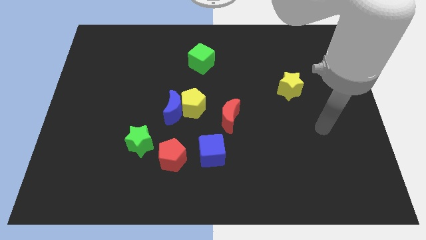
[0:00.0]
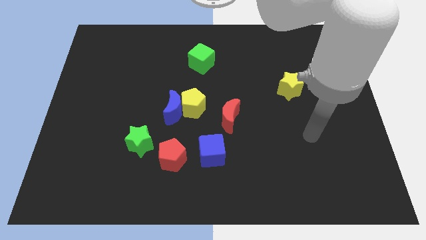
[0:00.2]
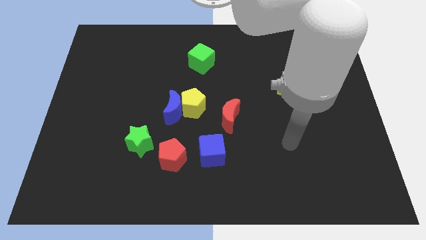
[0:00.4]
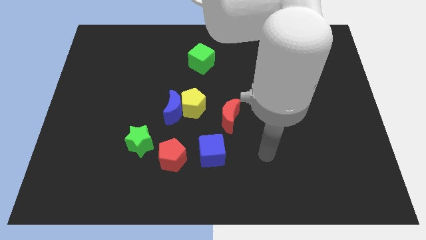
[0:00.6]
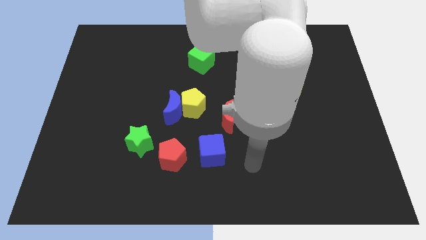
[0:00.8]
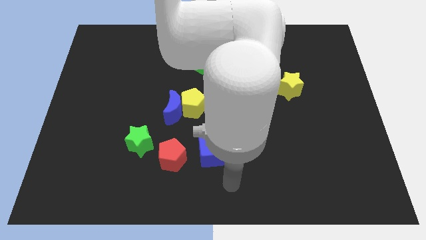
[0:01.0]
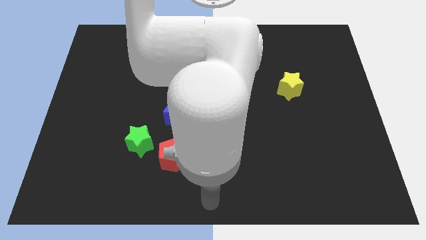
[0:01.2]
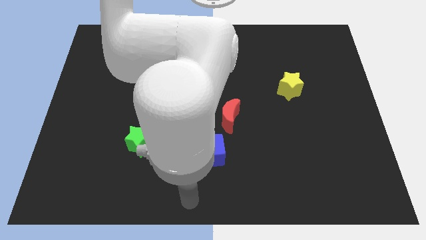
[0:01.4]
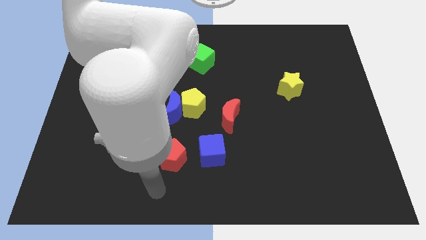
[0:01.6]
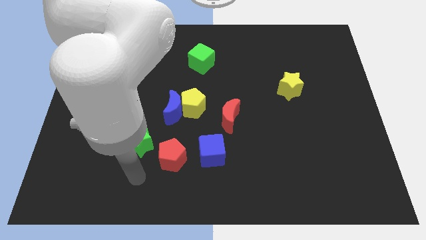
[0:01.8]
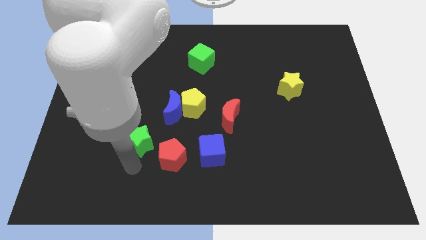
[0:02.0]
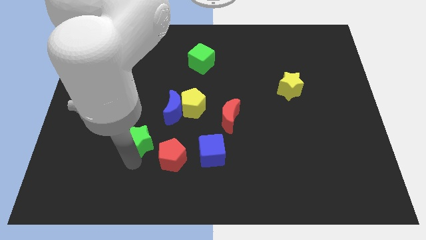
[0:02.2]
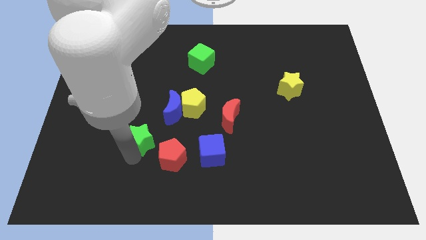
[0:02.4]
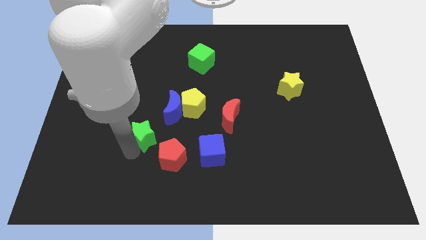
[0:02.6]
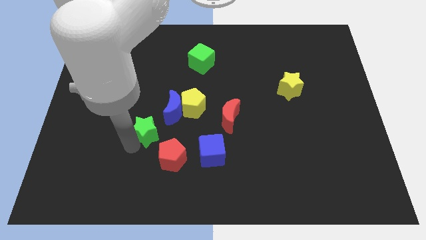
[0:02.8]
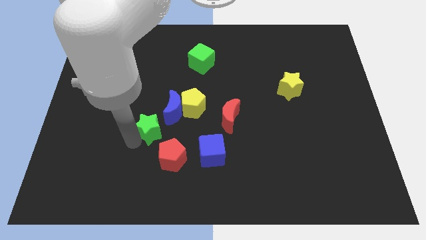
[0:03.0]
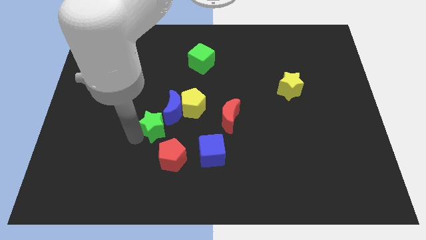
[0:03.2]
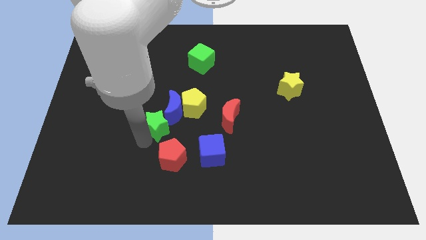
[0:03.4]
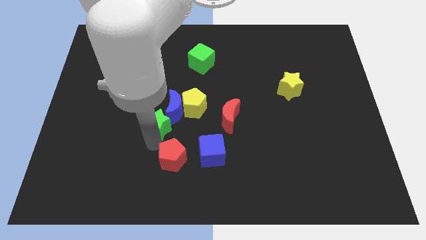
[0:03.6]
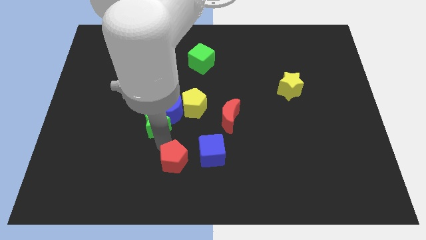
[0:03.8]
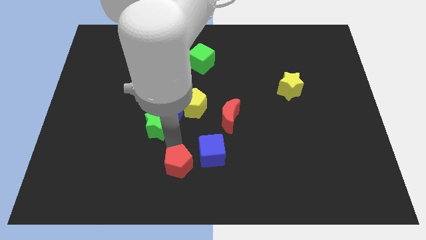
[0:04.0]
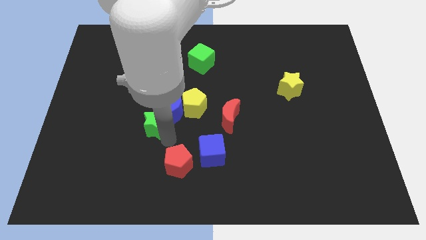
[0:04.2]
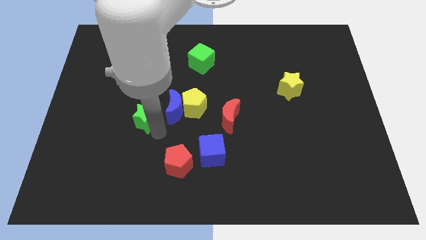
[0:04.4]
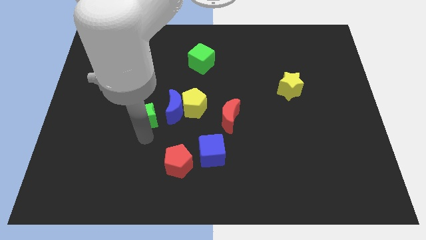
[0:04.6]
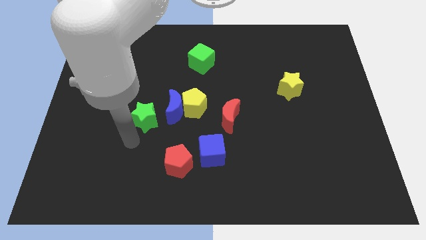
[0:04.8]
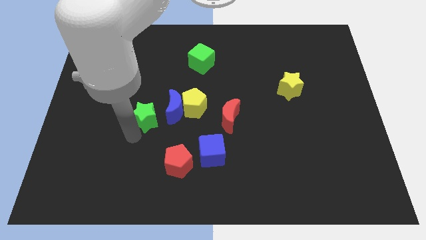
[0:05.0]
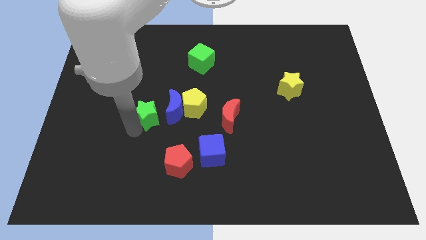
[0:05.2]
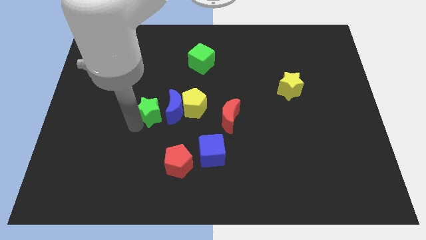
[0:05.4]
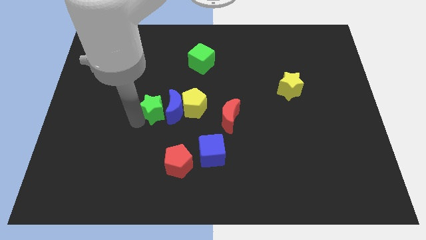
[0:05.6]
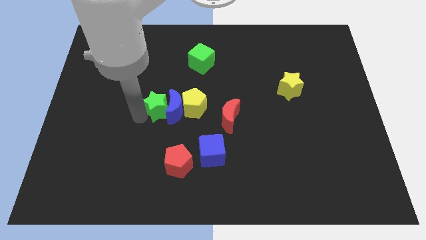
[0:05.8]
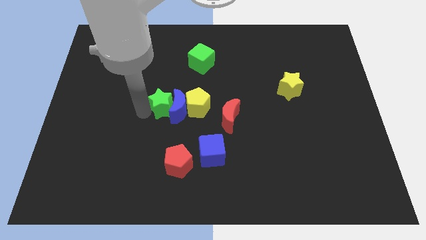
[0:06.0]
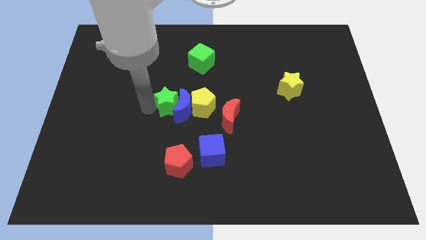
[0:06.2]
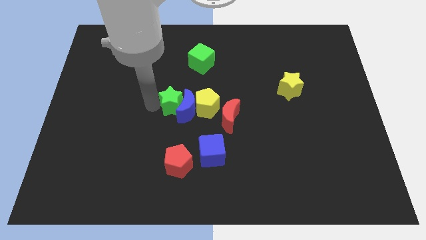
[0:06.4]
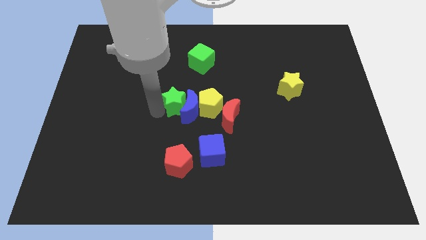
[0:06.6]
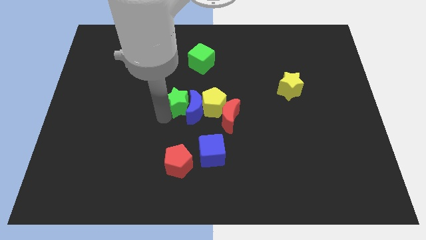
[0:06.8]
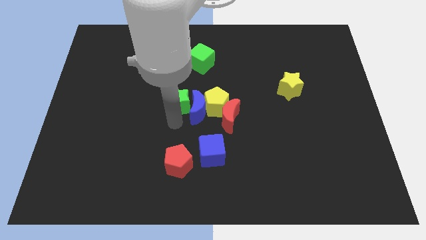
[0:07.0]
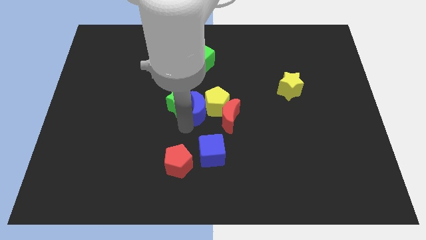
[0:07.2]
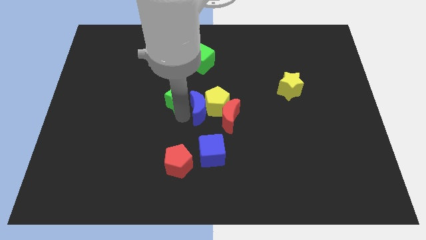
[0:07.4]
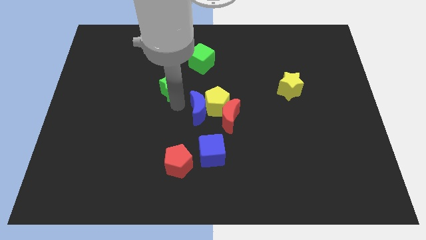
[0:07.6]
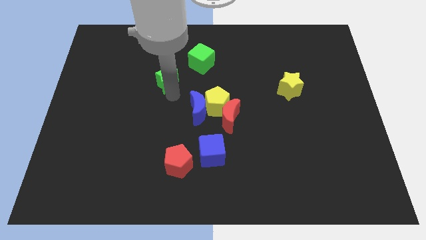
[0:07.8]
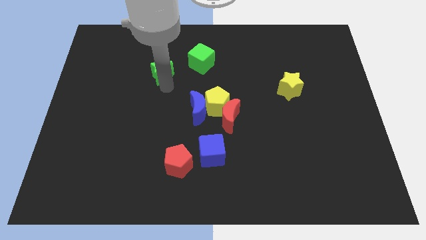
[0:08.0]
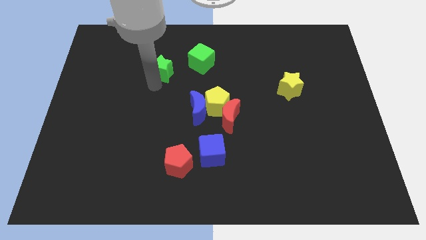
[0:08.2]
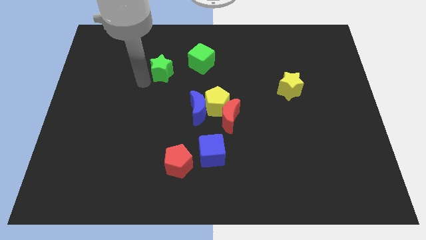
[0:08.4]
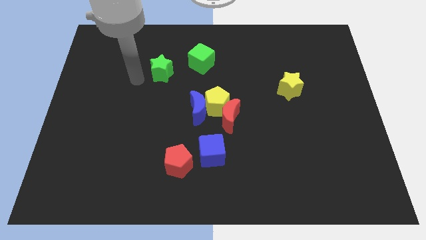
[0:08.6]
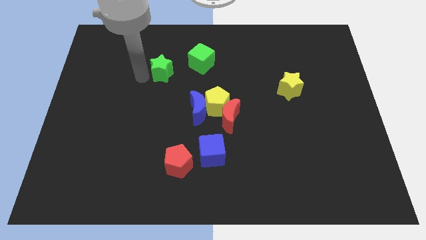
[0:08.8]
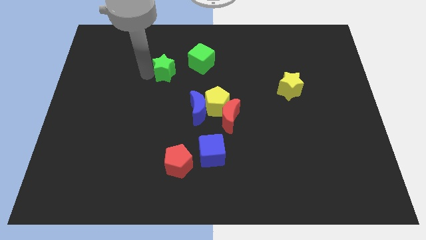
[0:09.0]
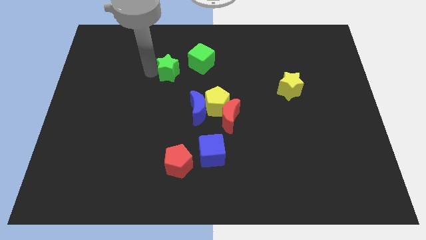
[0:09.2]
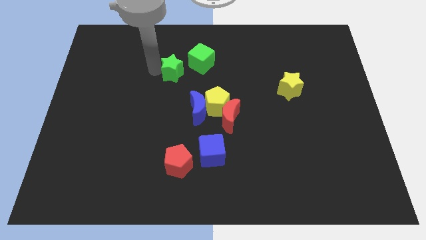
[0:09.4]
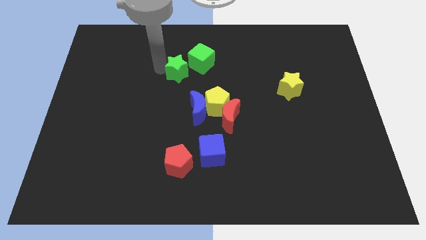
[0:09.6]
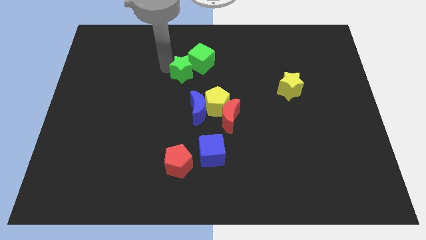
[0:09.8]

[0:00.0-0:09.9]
slide the green star towards the green cube

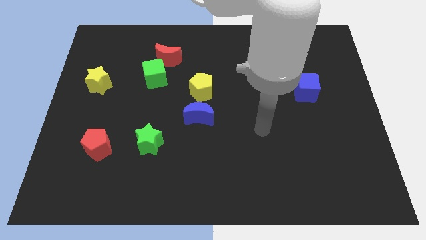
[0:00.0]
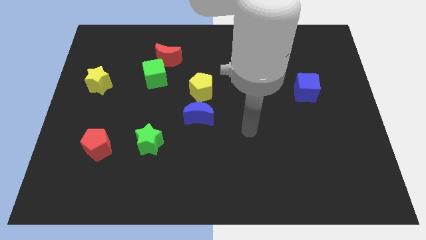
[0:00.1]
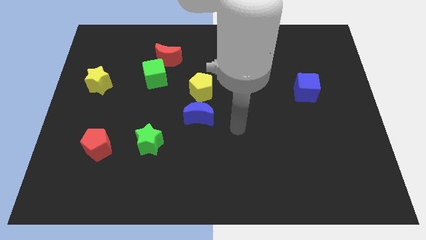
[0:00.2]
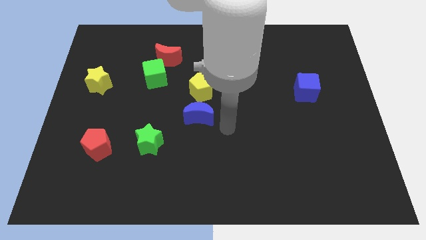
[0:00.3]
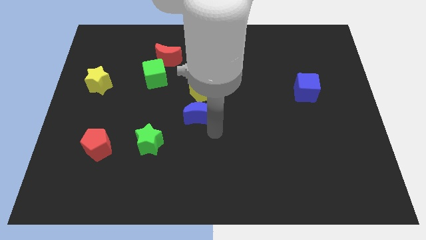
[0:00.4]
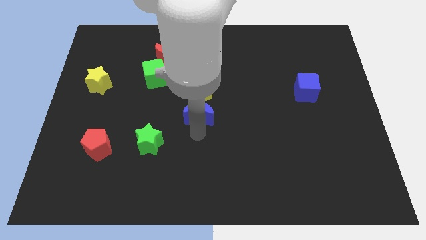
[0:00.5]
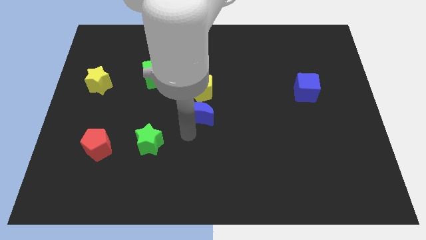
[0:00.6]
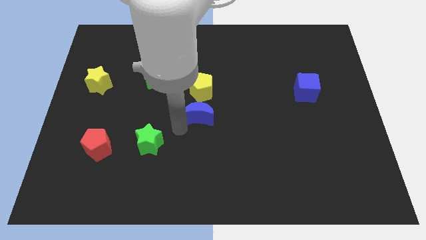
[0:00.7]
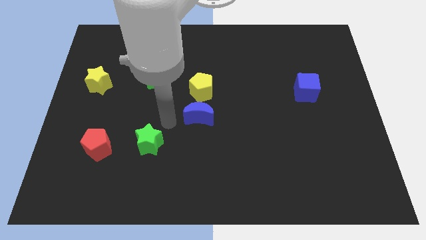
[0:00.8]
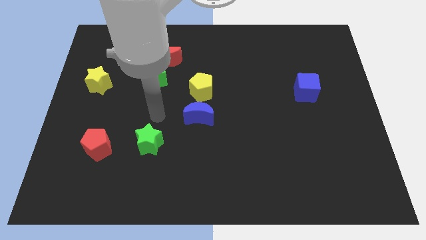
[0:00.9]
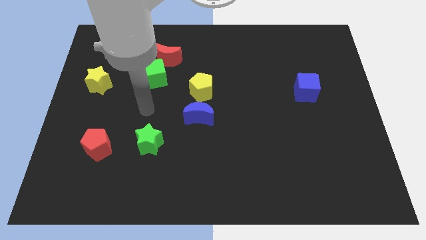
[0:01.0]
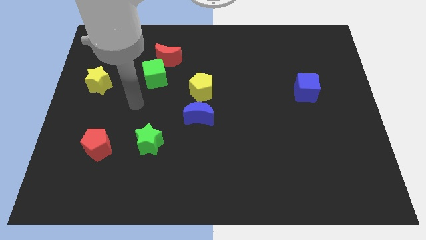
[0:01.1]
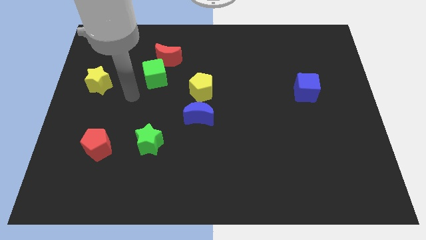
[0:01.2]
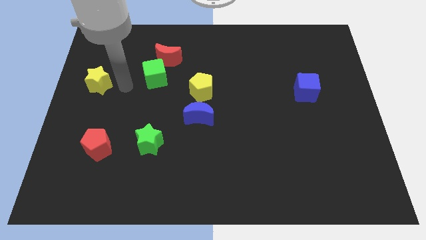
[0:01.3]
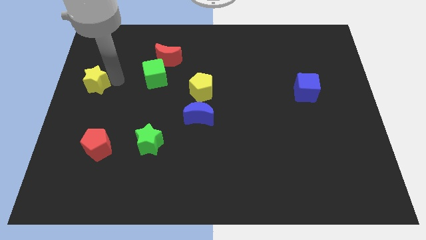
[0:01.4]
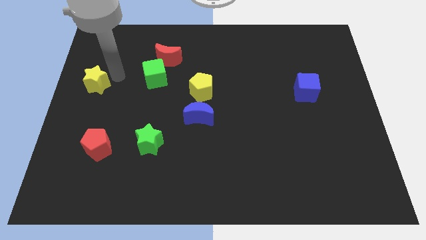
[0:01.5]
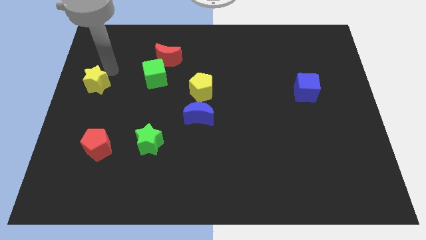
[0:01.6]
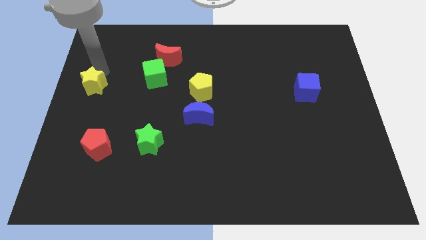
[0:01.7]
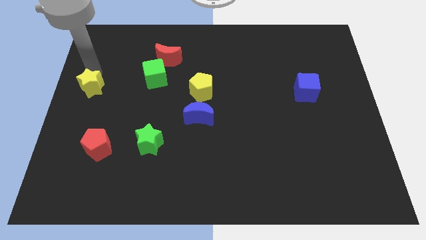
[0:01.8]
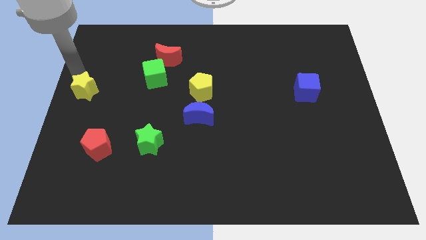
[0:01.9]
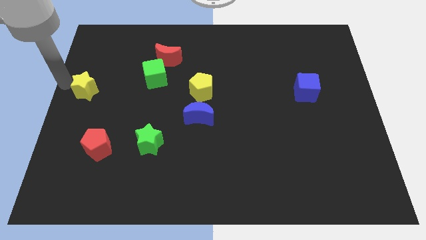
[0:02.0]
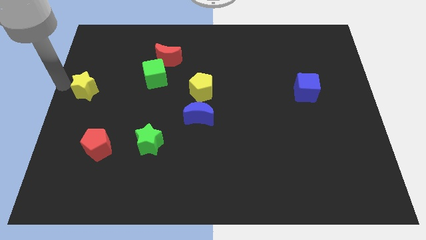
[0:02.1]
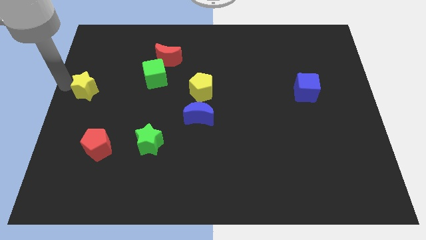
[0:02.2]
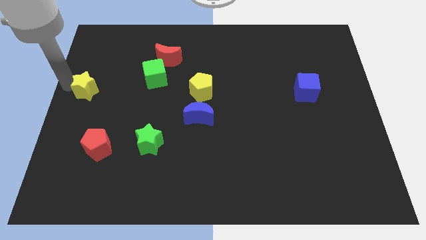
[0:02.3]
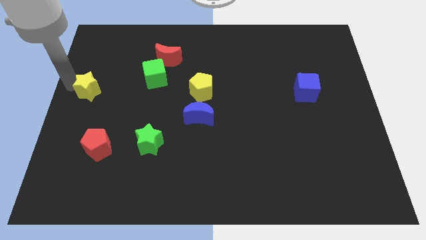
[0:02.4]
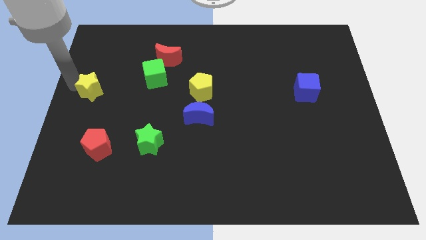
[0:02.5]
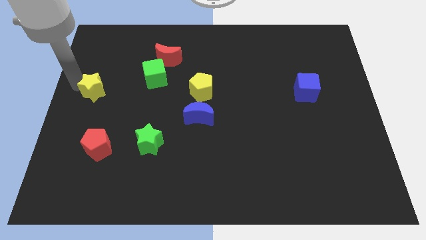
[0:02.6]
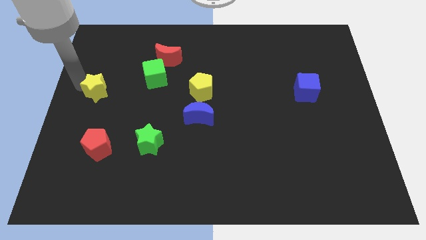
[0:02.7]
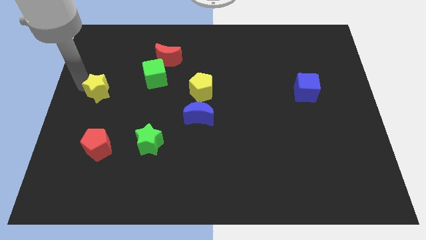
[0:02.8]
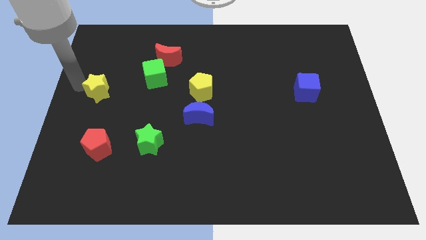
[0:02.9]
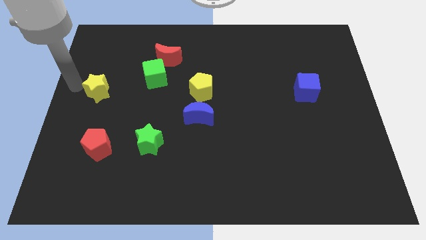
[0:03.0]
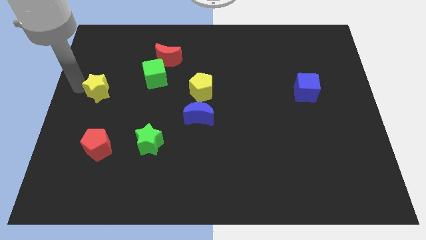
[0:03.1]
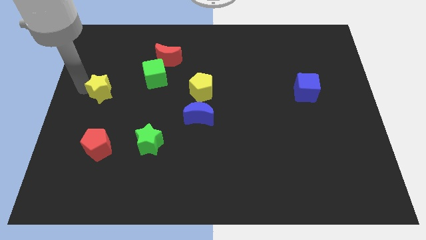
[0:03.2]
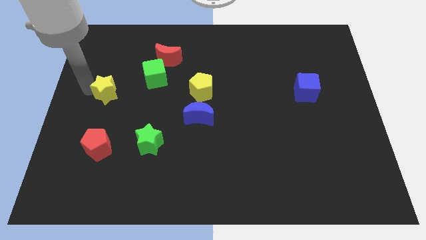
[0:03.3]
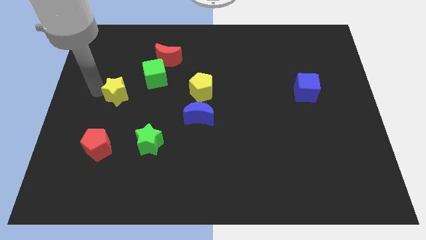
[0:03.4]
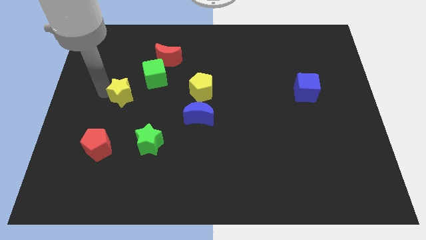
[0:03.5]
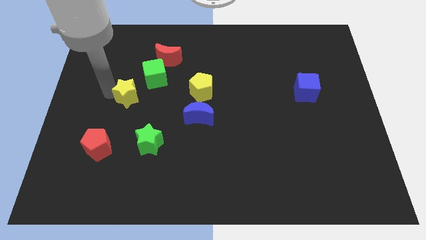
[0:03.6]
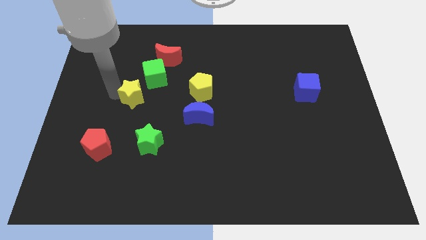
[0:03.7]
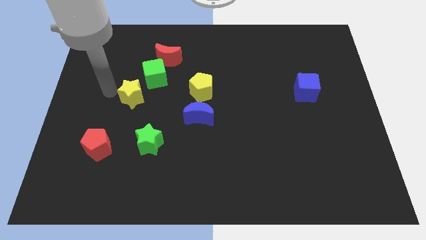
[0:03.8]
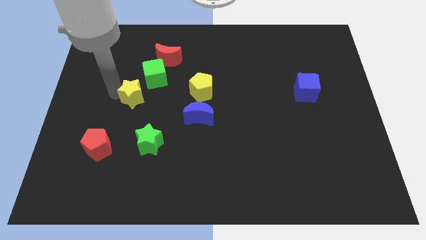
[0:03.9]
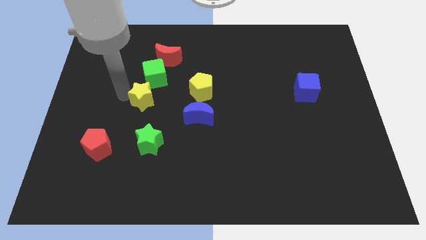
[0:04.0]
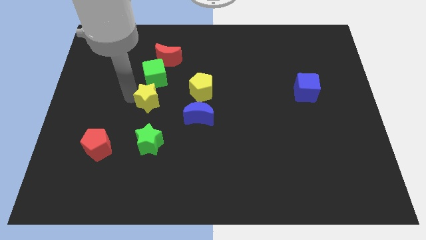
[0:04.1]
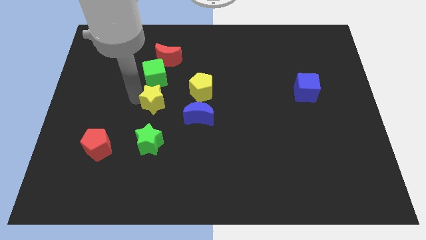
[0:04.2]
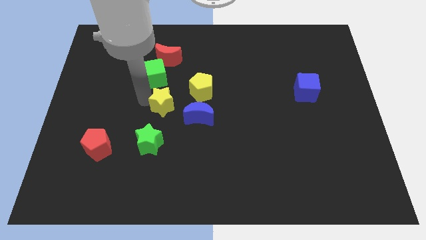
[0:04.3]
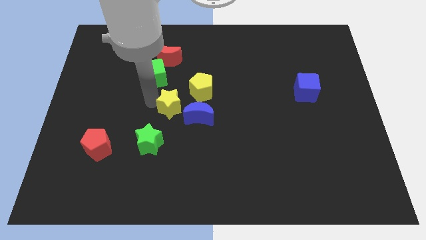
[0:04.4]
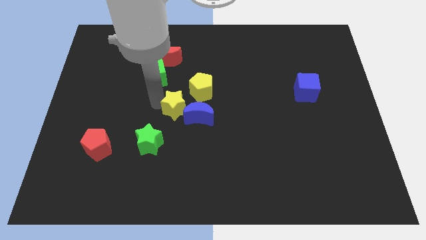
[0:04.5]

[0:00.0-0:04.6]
put the yellow star close to the blue moon
